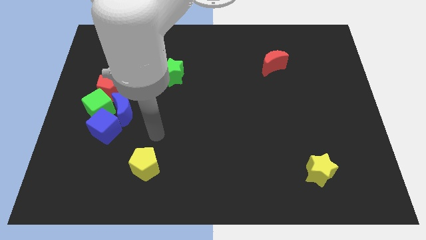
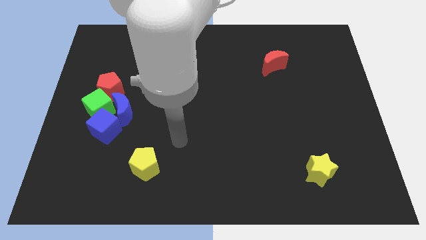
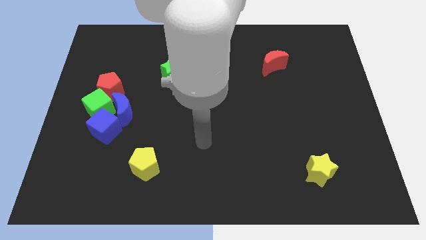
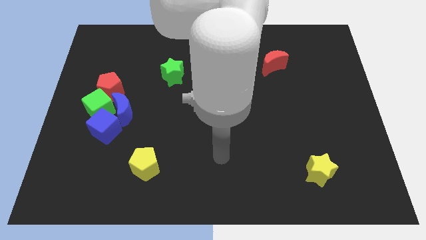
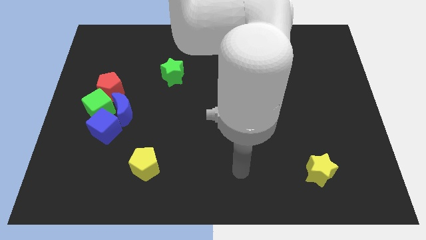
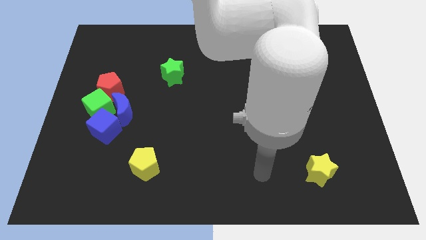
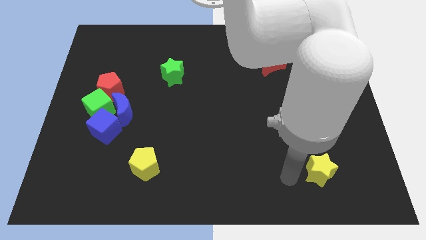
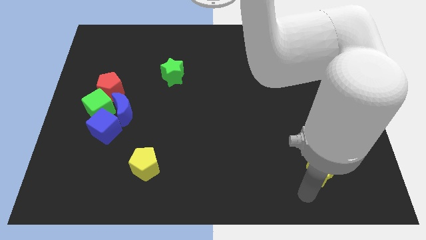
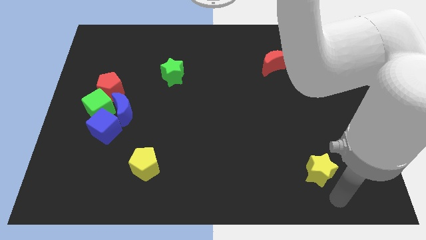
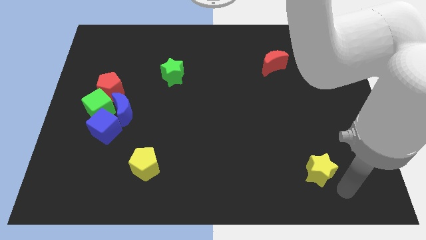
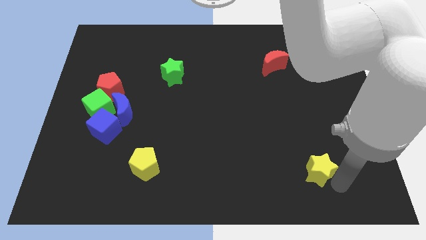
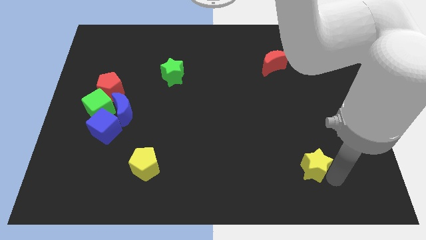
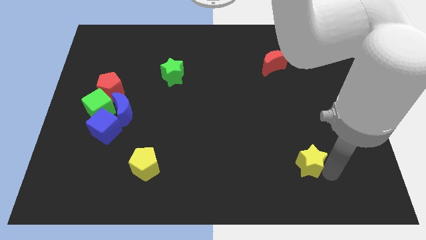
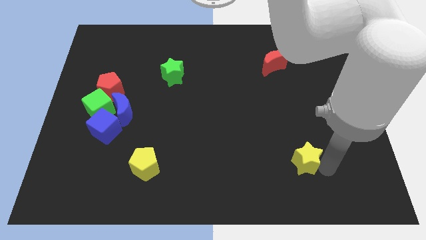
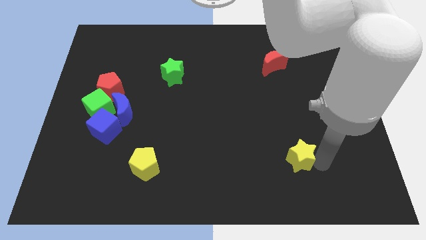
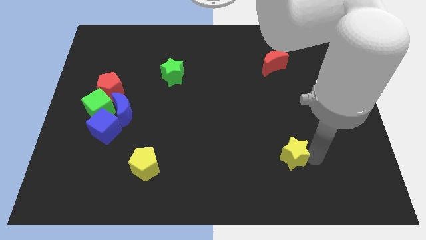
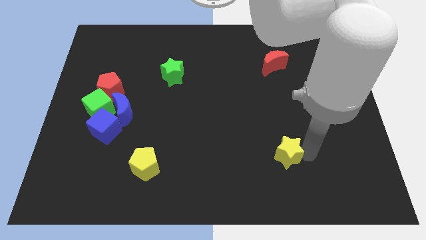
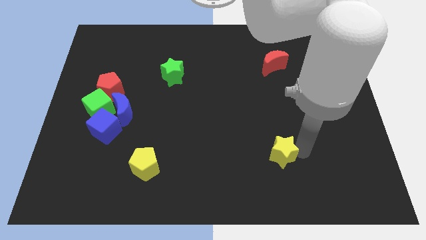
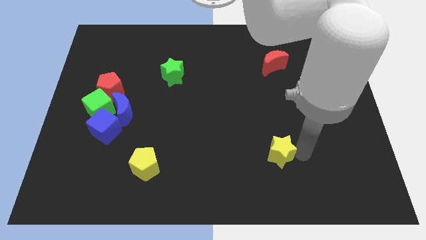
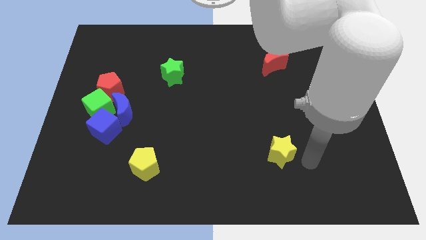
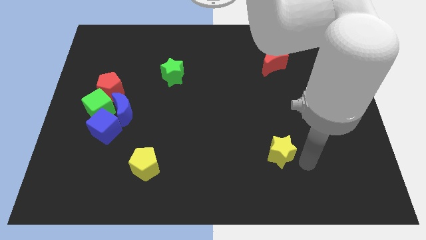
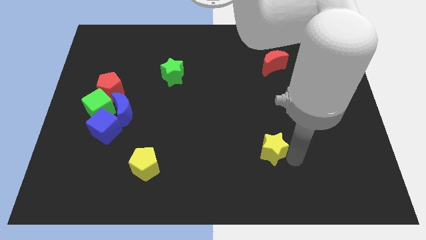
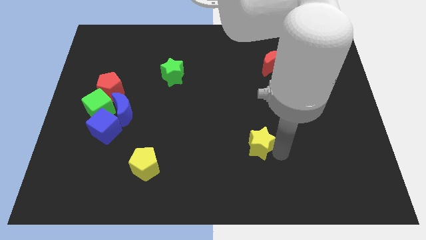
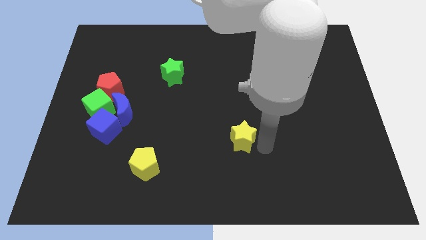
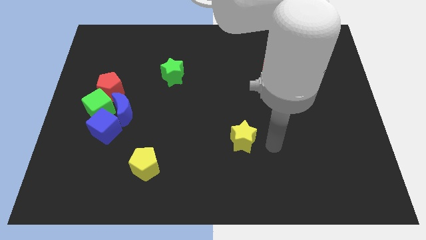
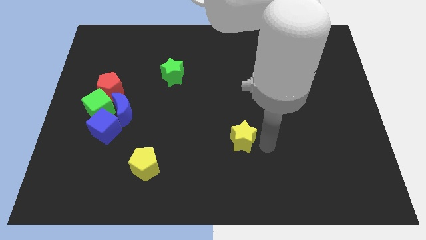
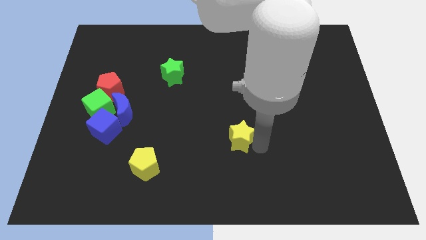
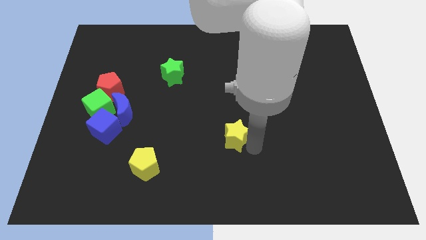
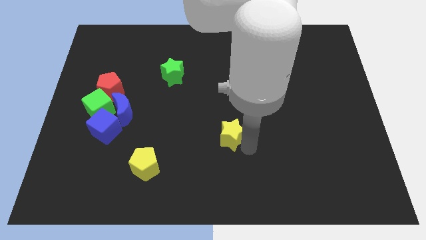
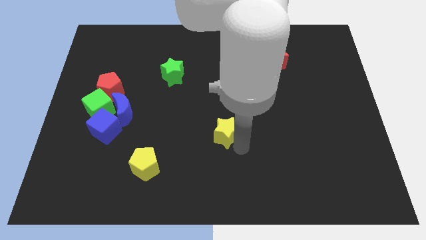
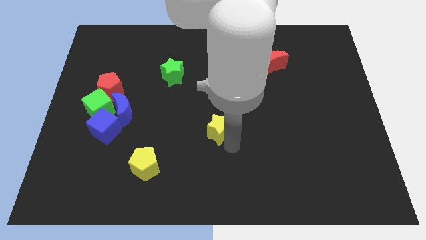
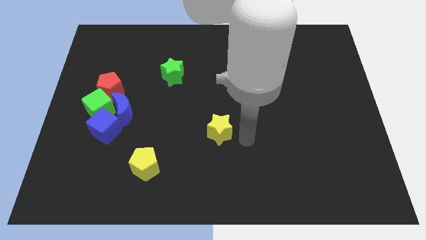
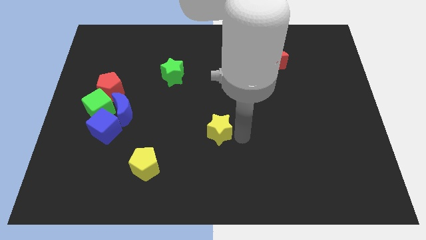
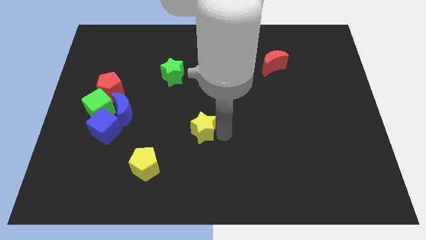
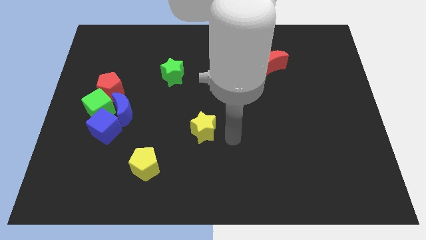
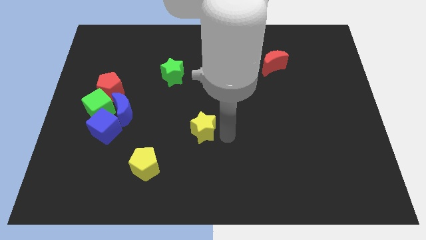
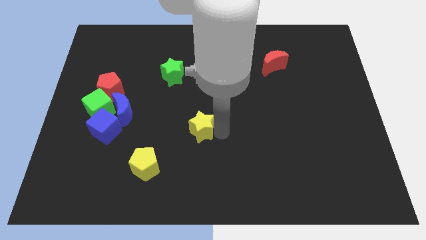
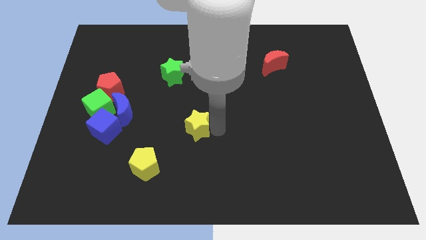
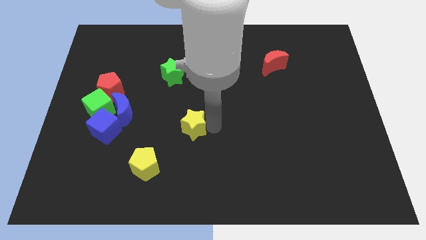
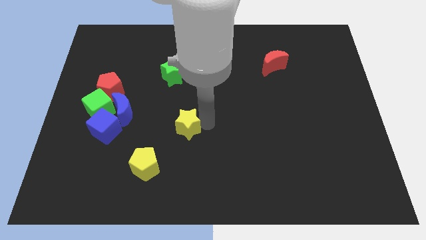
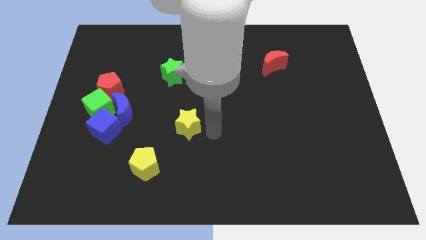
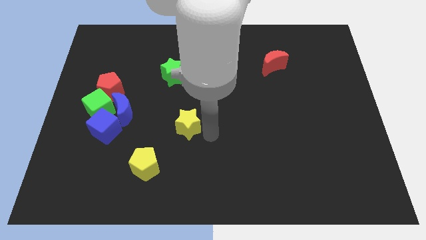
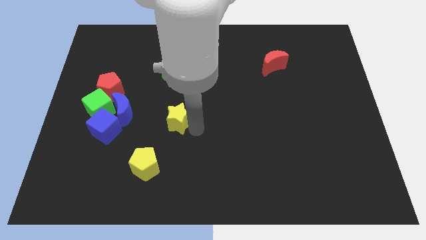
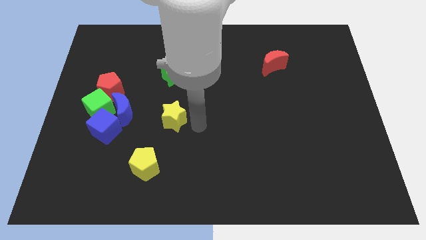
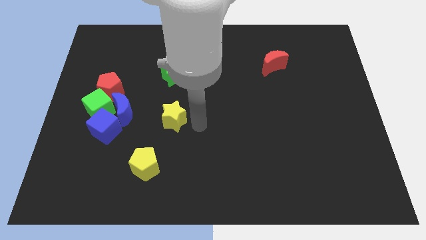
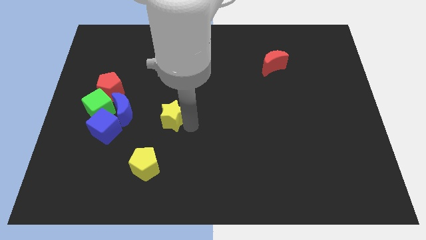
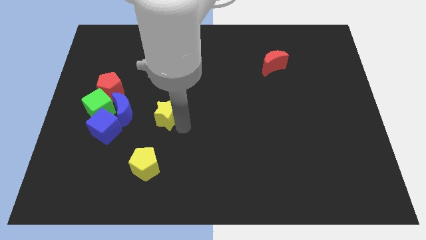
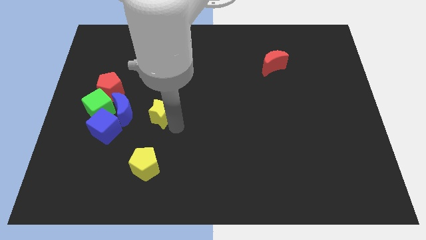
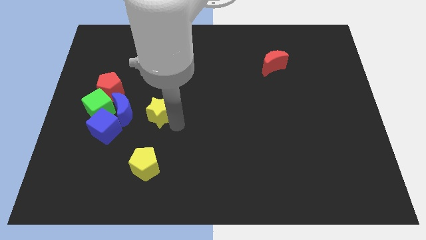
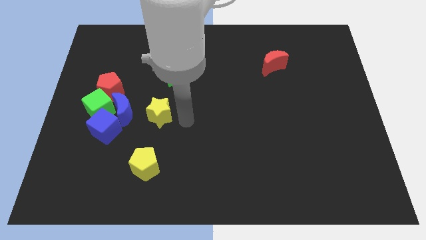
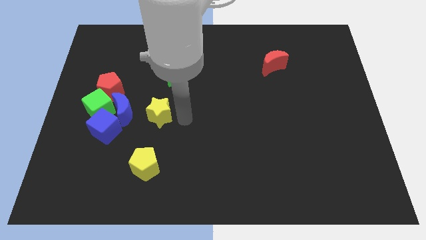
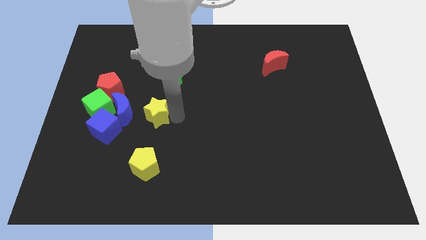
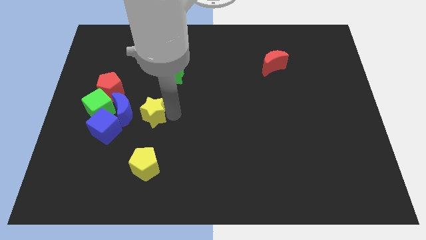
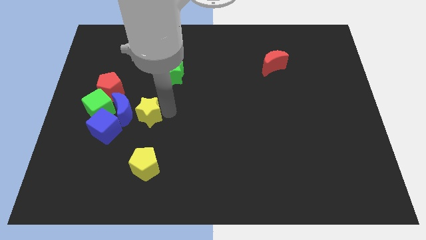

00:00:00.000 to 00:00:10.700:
push the yellow star to the blue moon

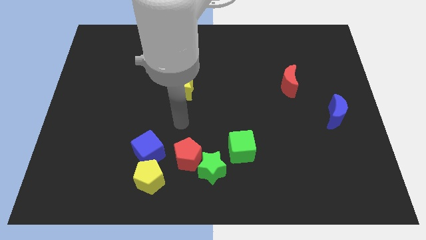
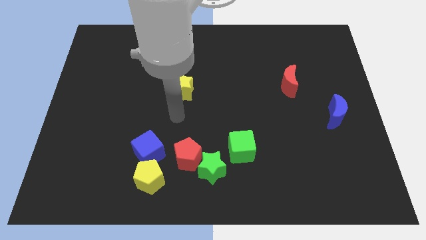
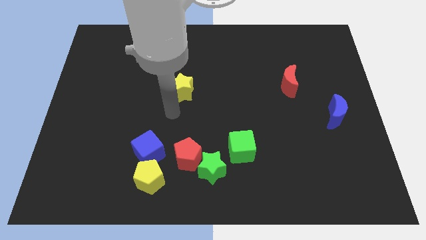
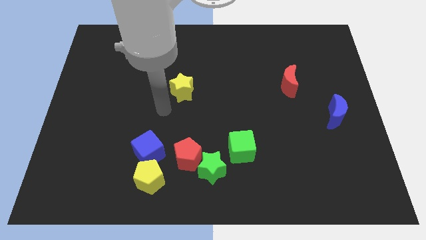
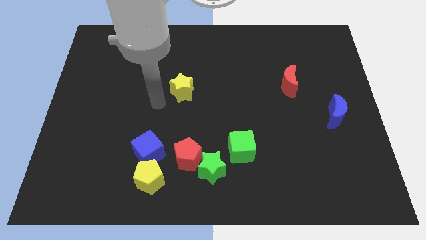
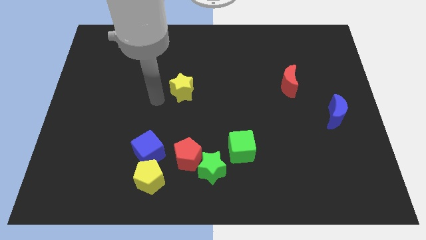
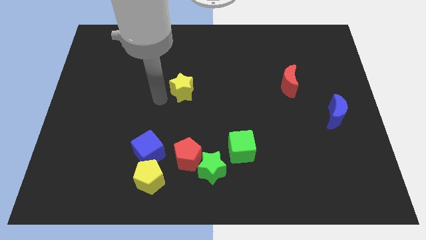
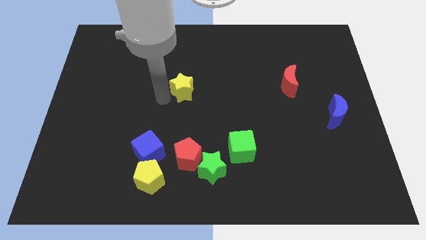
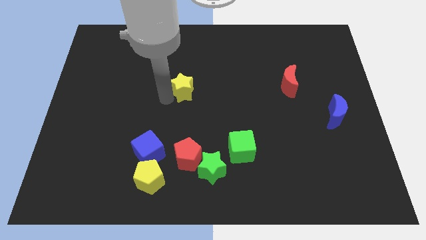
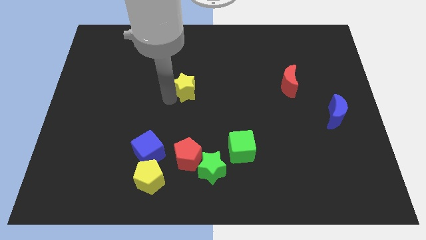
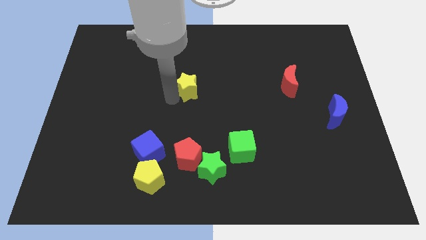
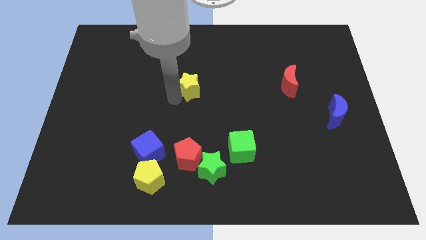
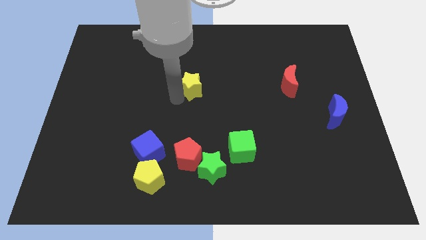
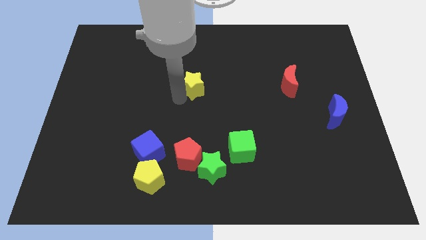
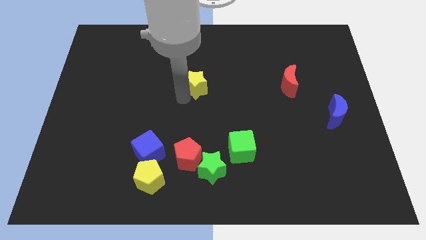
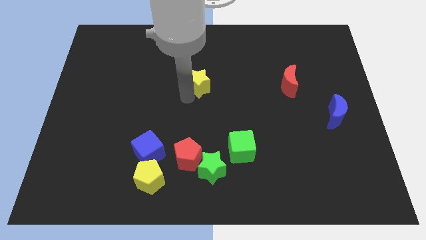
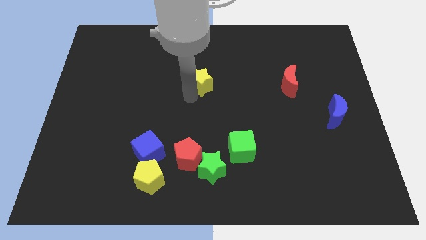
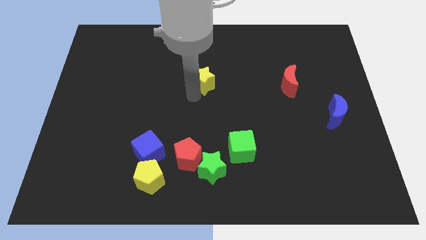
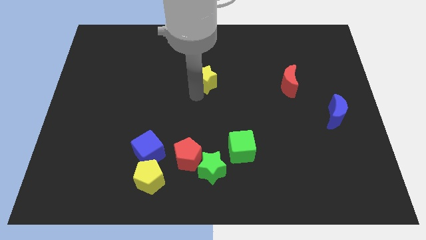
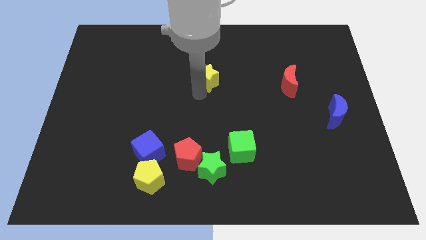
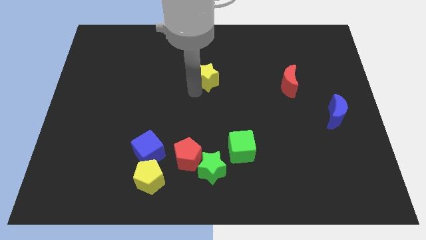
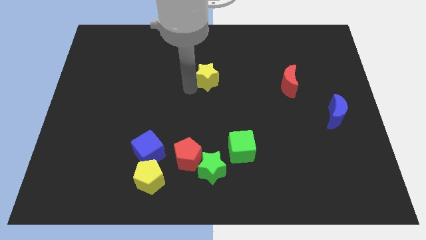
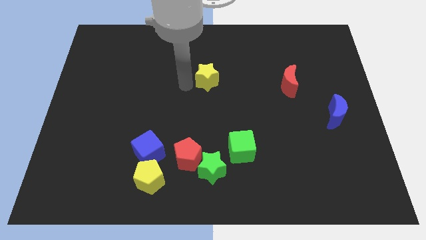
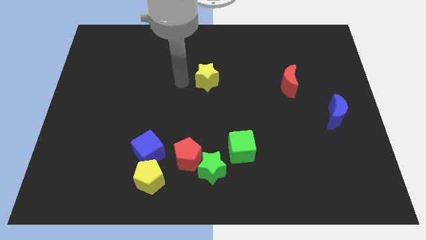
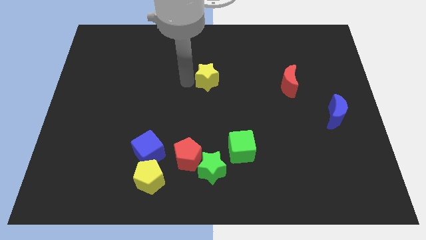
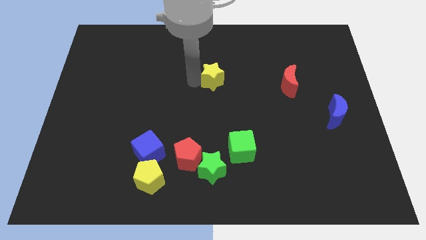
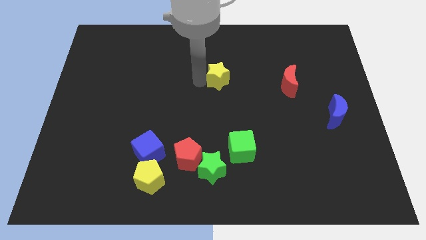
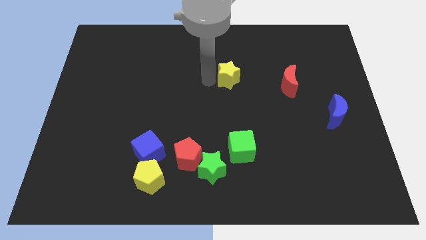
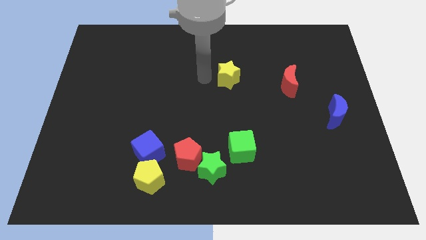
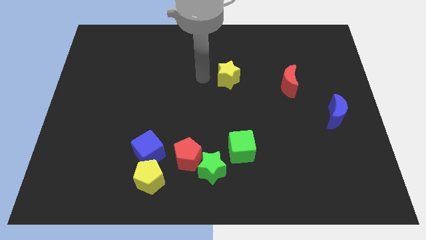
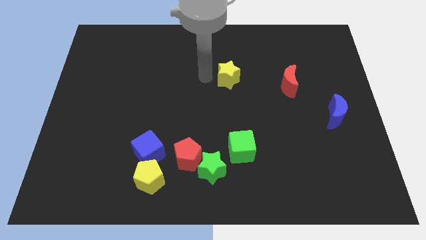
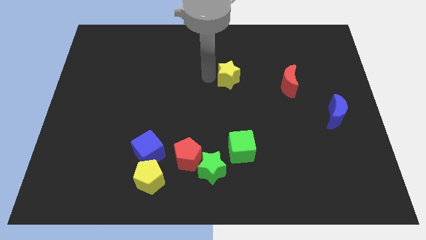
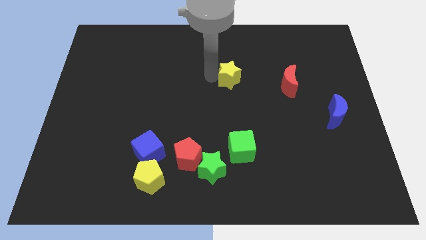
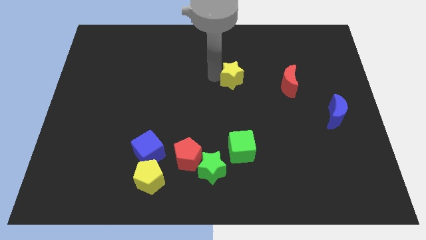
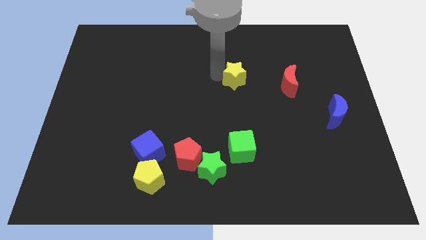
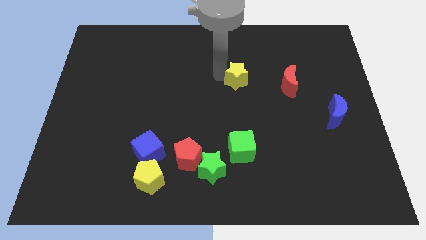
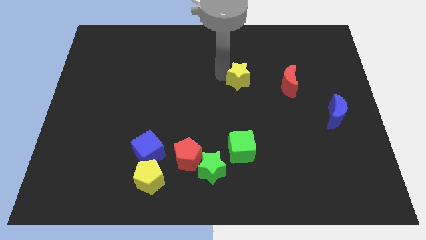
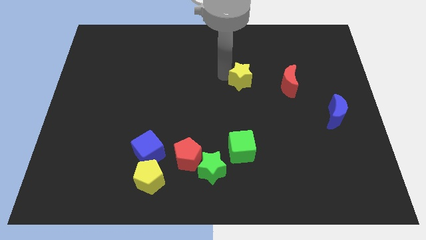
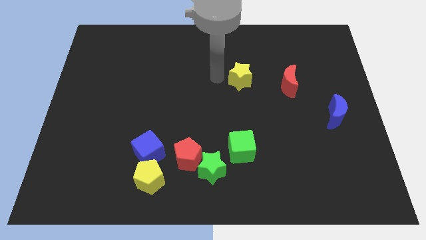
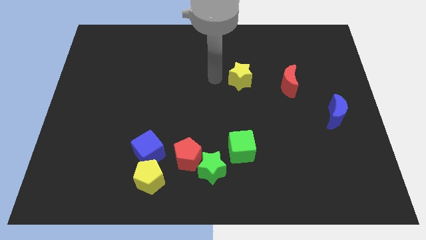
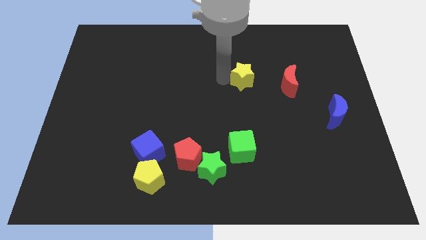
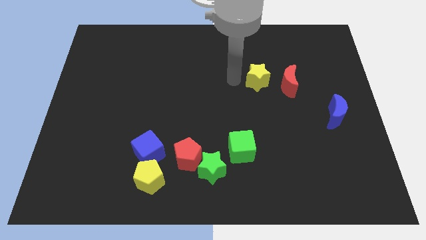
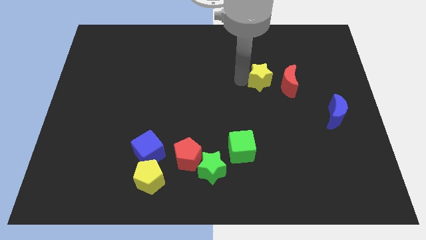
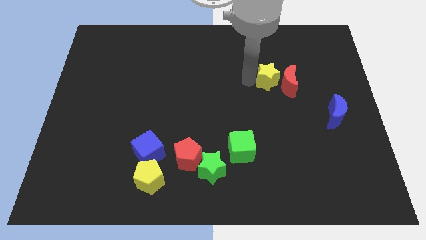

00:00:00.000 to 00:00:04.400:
push the yellow star to the red moon
